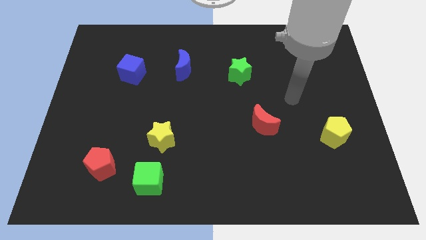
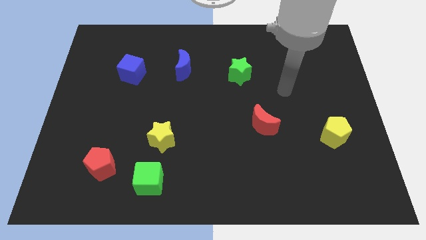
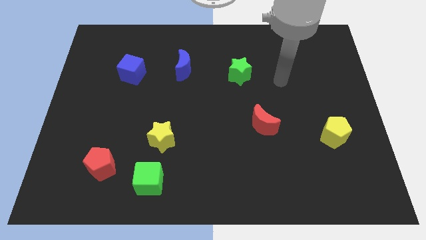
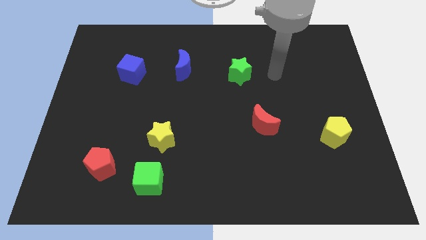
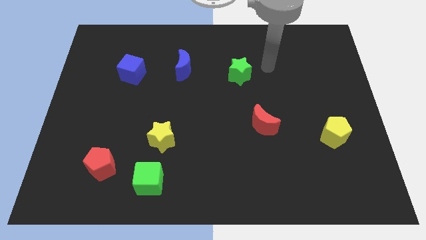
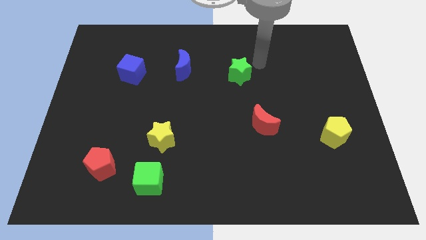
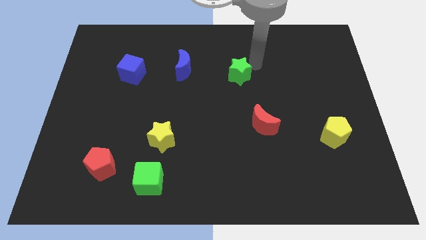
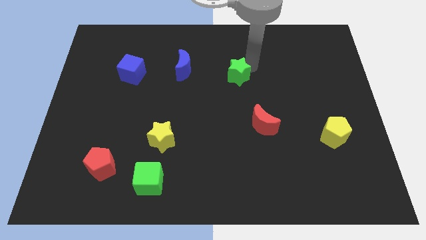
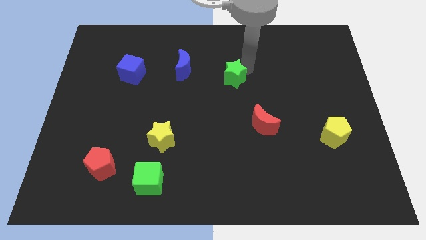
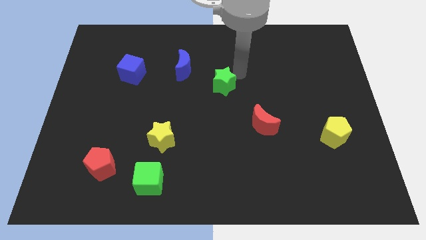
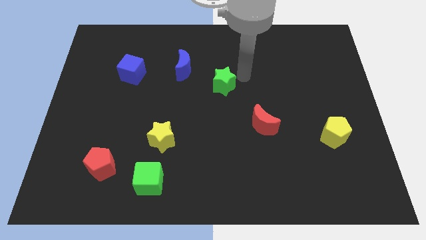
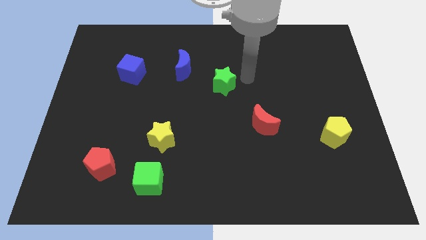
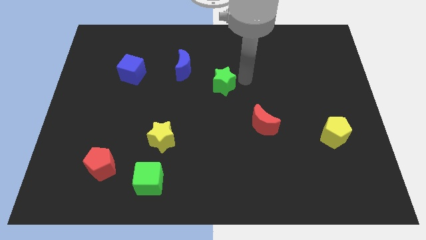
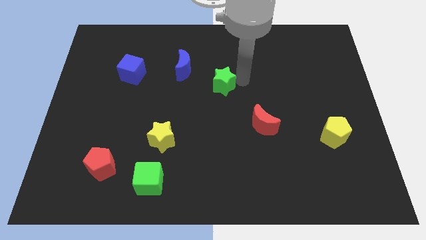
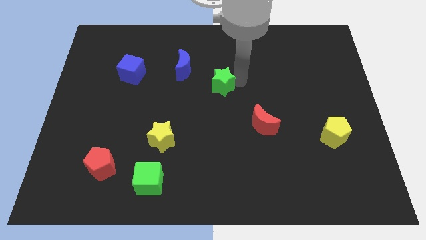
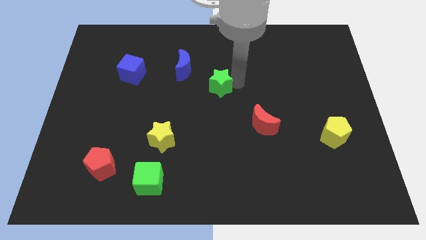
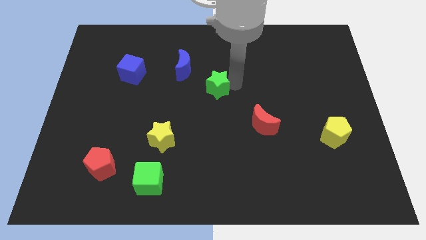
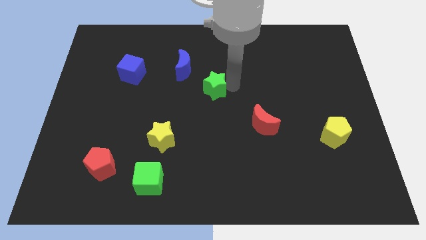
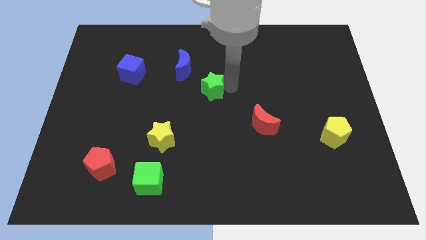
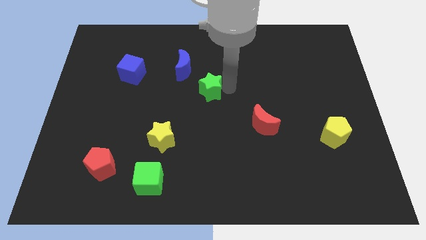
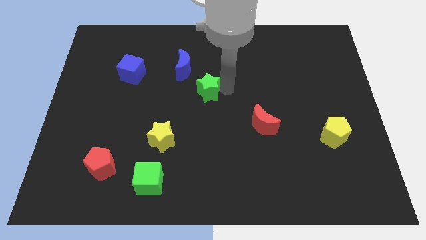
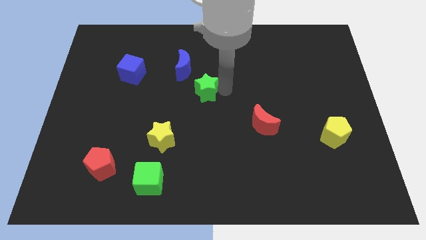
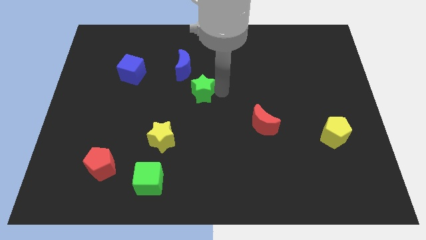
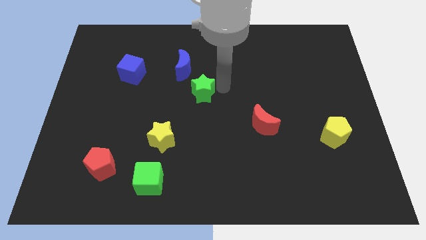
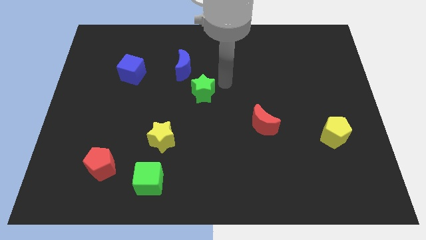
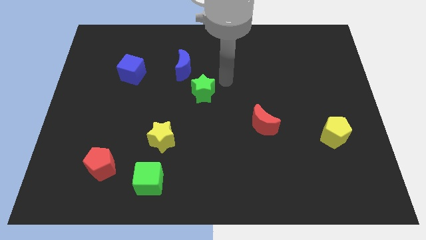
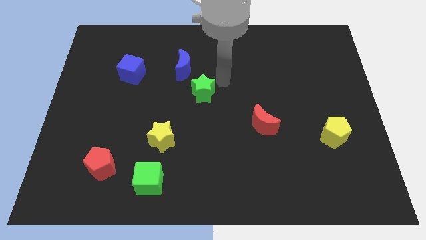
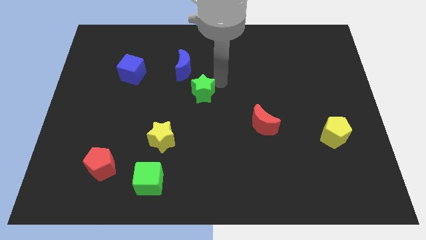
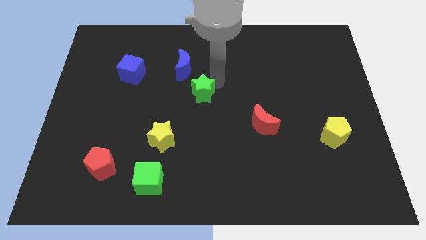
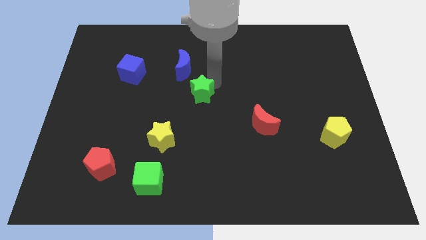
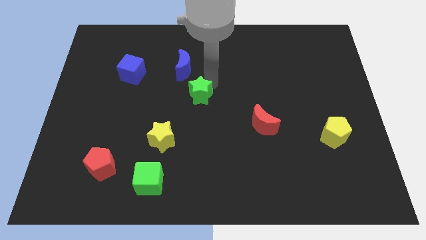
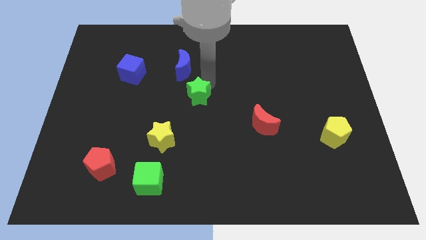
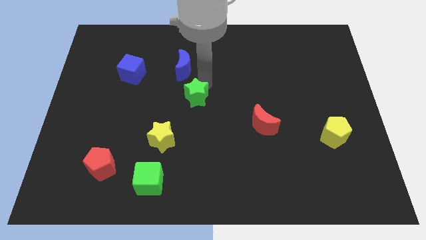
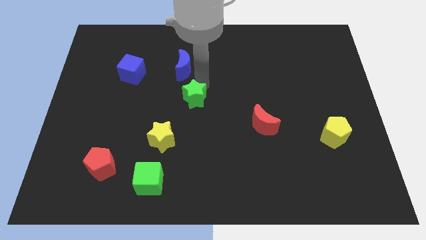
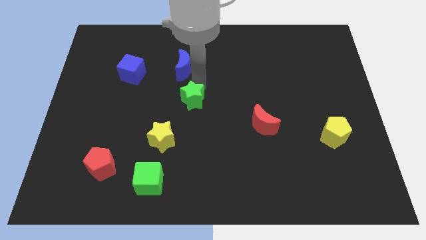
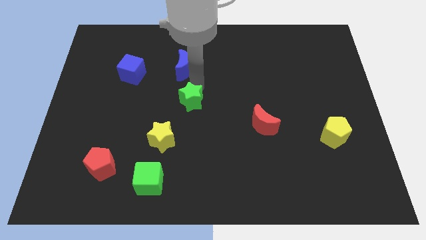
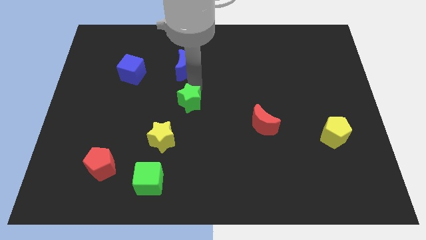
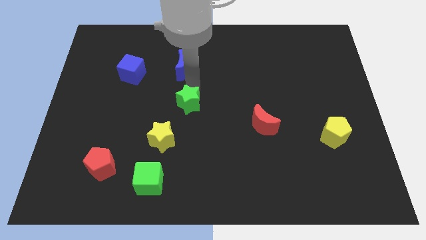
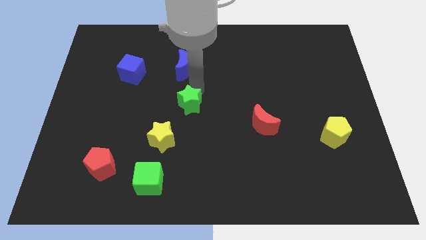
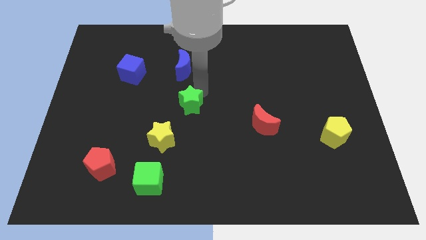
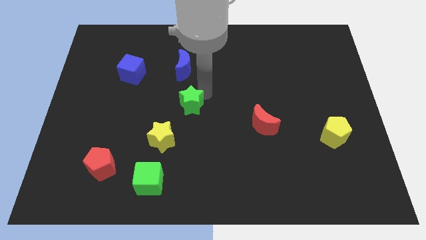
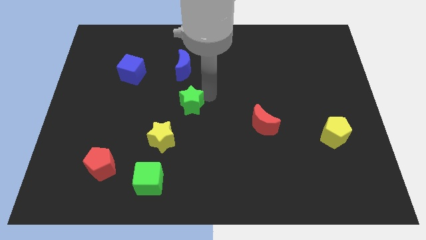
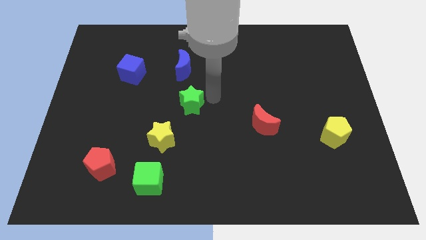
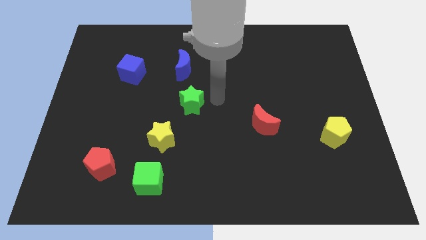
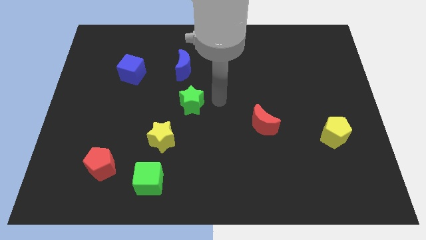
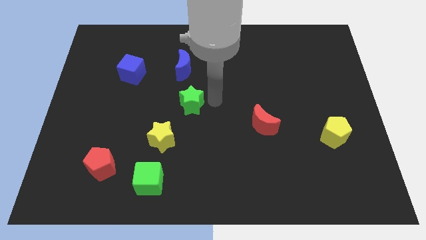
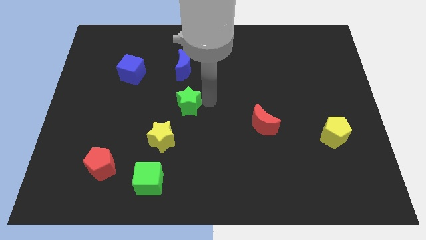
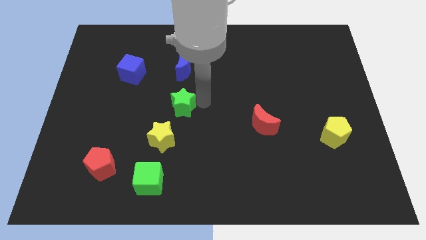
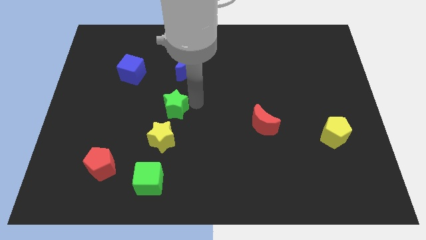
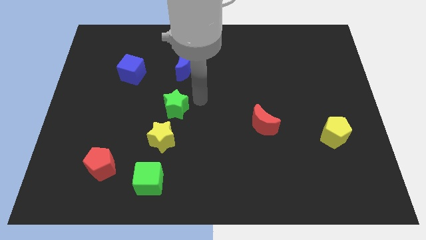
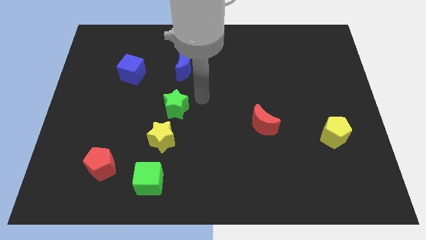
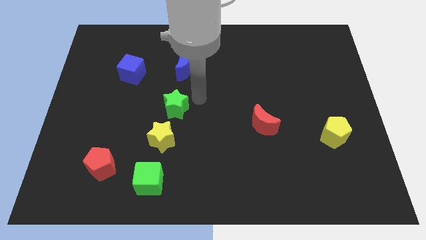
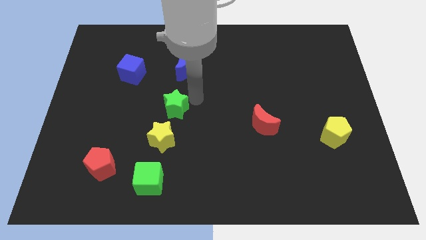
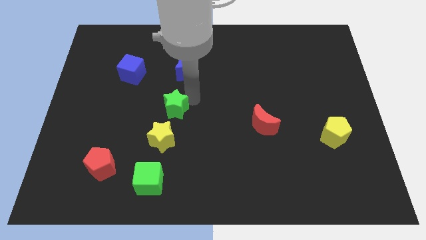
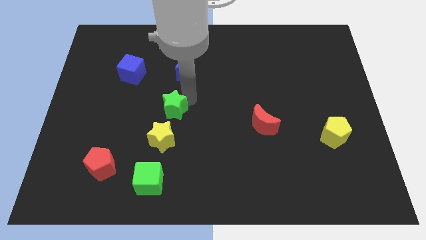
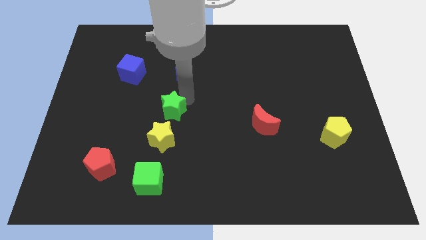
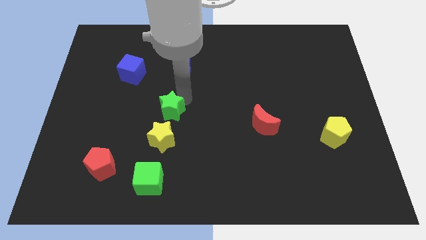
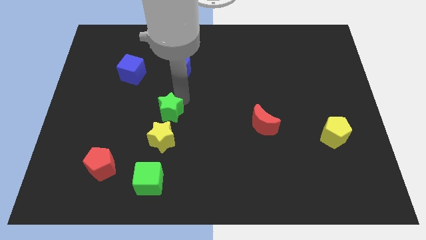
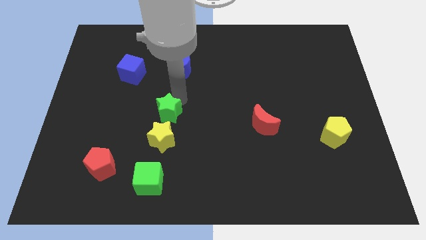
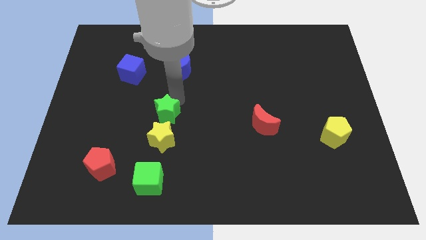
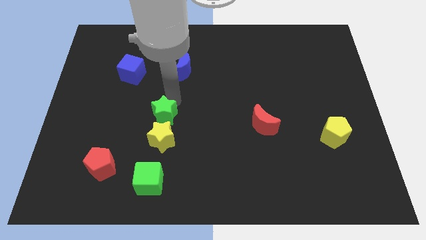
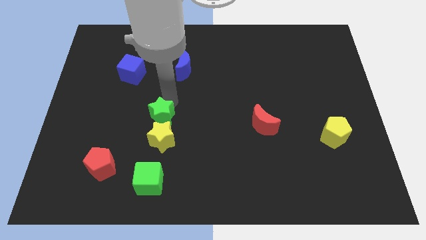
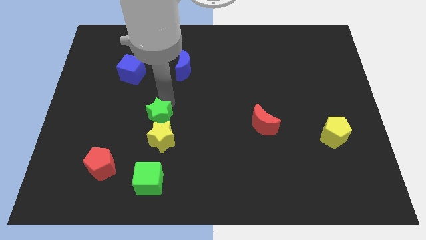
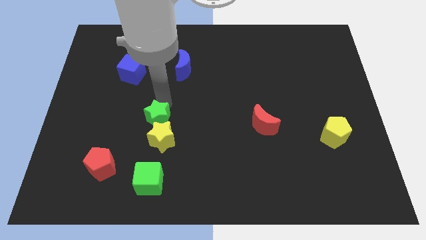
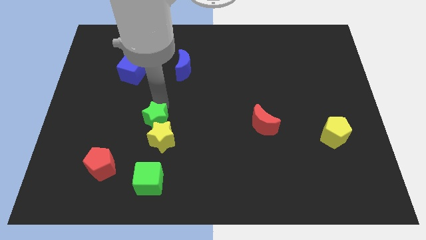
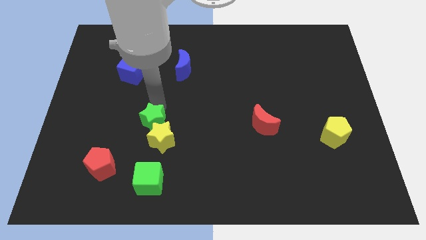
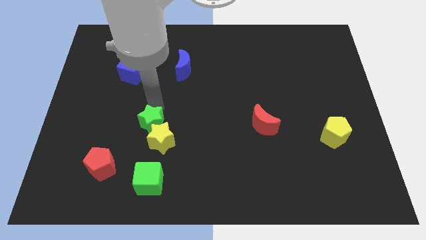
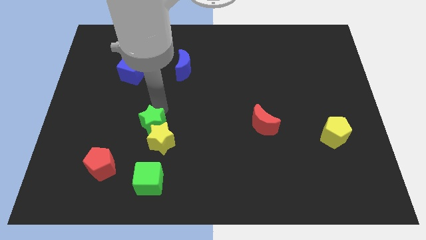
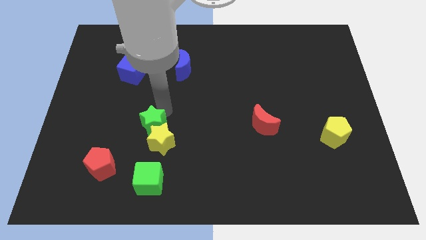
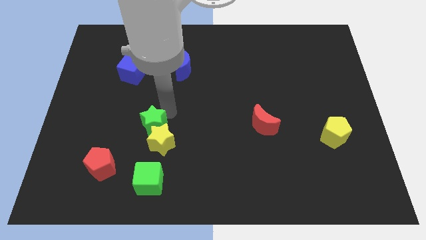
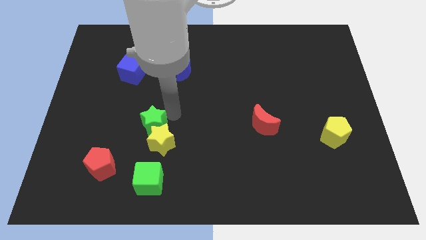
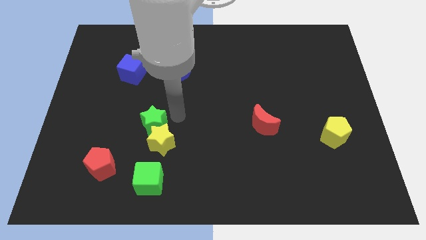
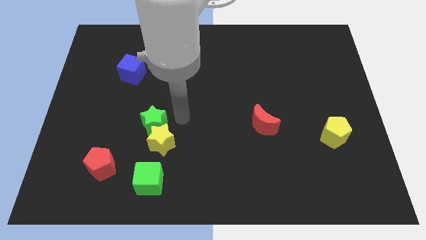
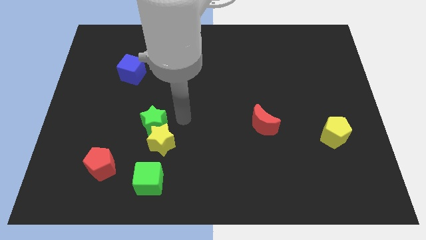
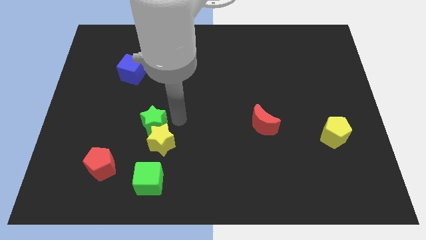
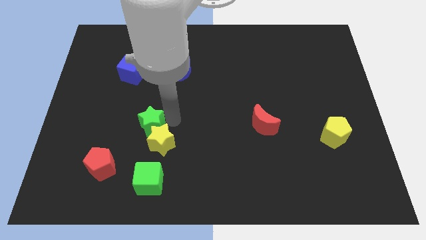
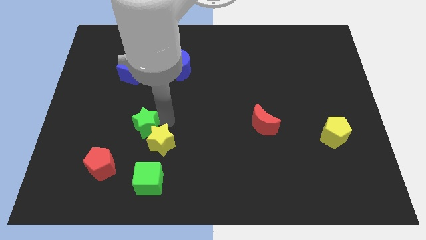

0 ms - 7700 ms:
put the green star left of the yellow star

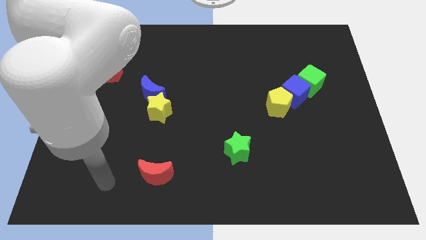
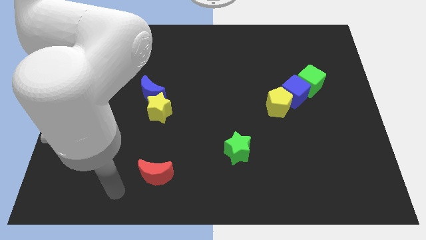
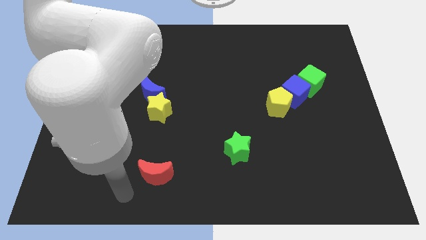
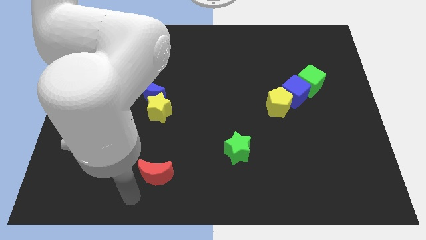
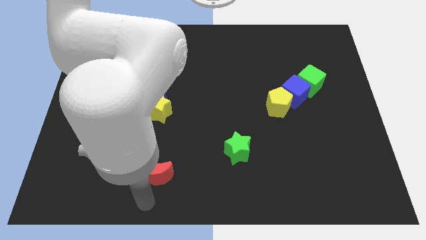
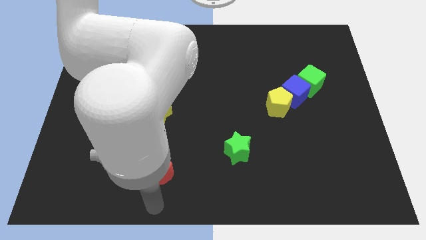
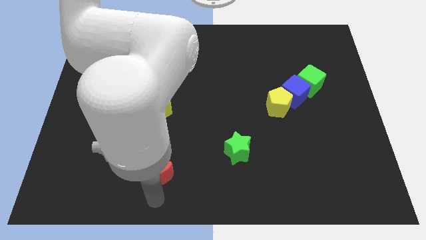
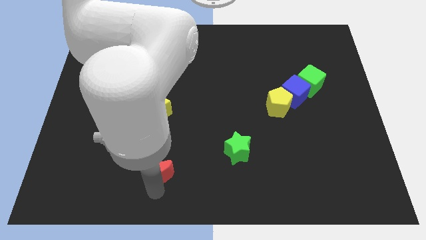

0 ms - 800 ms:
push the red moon to the bottom of the yellow star
